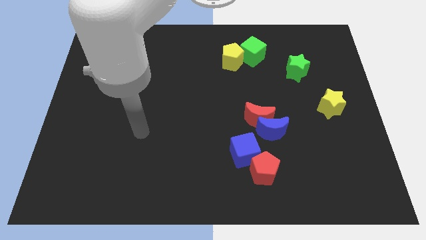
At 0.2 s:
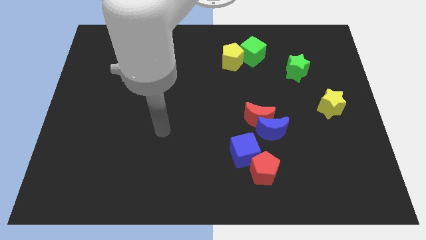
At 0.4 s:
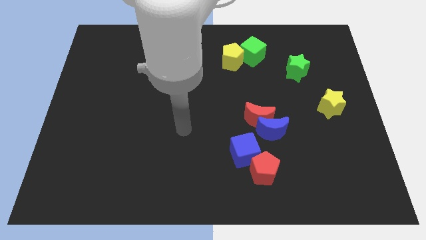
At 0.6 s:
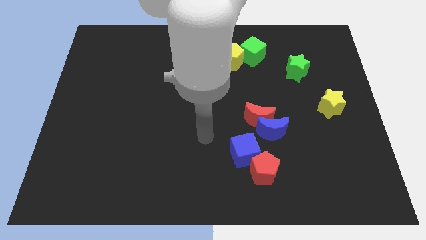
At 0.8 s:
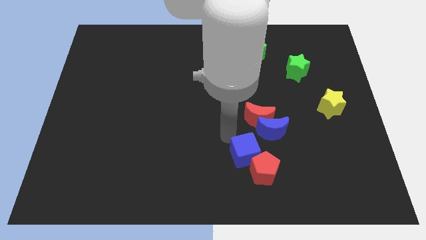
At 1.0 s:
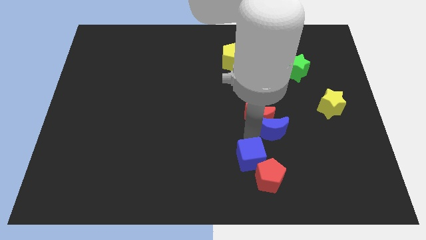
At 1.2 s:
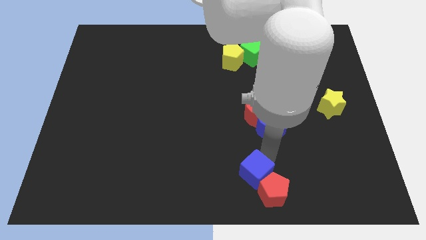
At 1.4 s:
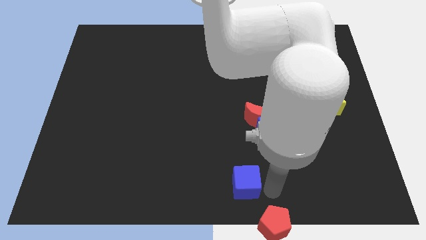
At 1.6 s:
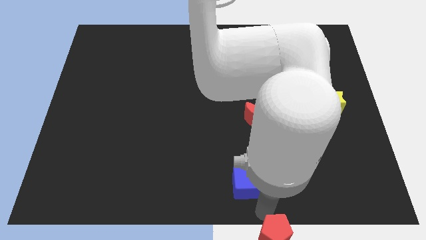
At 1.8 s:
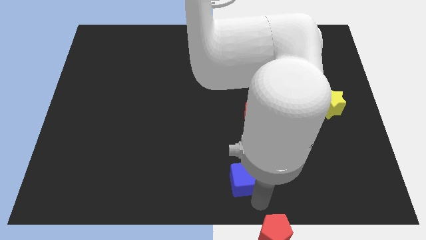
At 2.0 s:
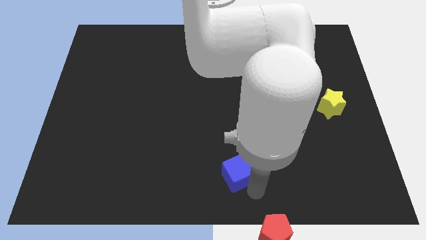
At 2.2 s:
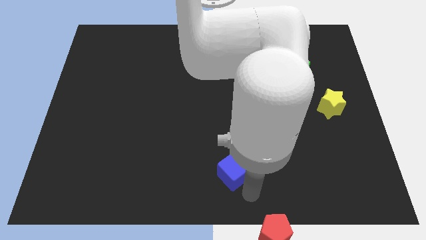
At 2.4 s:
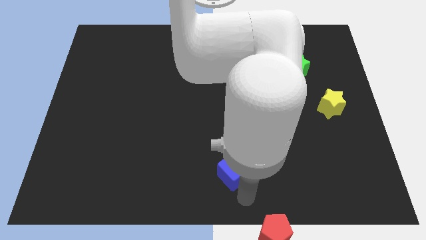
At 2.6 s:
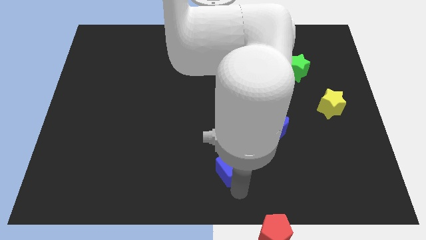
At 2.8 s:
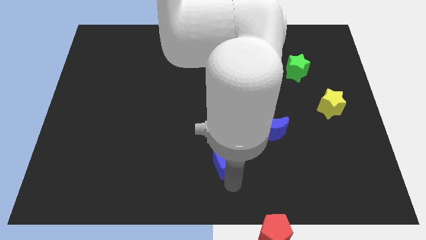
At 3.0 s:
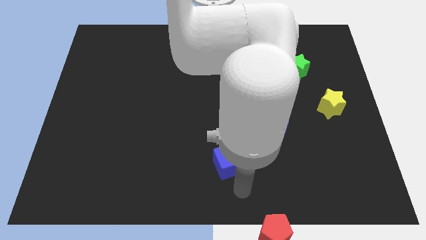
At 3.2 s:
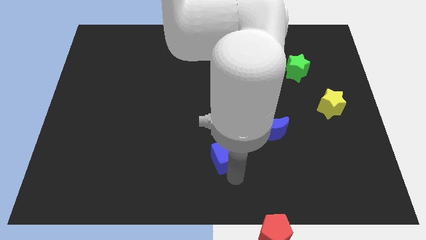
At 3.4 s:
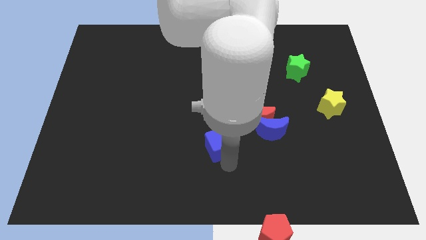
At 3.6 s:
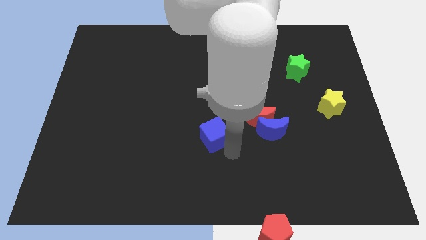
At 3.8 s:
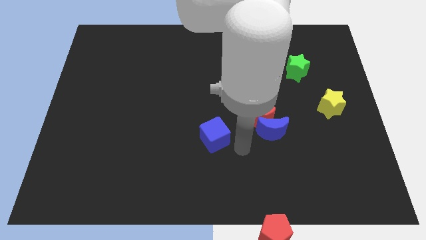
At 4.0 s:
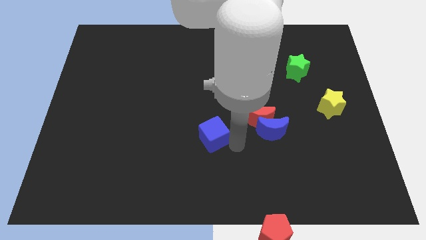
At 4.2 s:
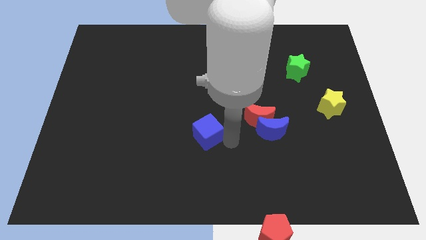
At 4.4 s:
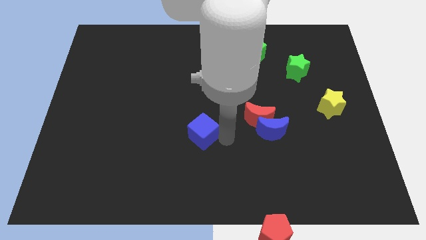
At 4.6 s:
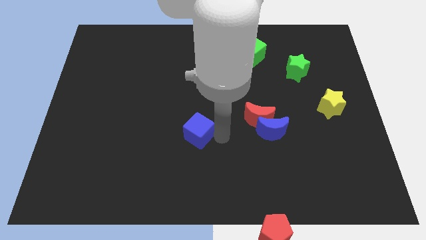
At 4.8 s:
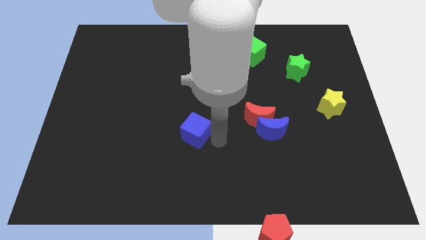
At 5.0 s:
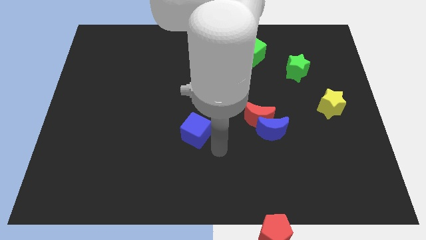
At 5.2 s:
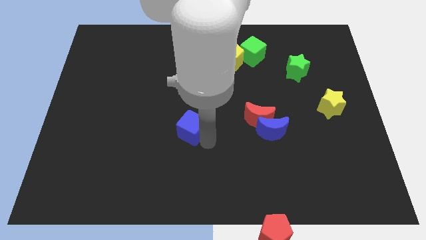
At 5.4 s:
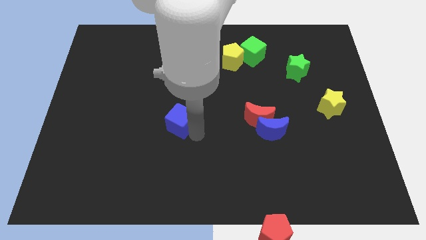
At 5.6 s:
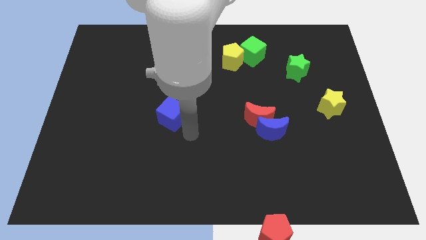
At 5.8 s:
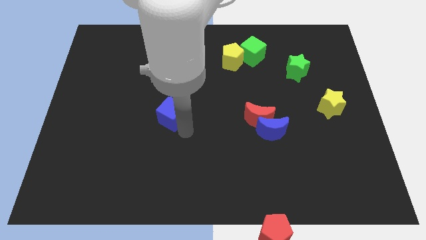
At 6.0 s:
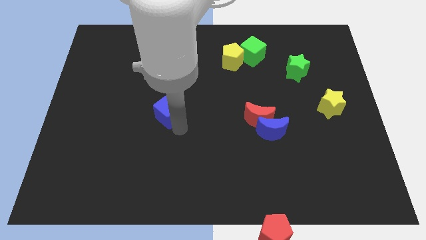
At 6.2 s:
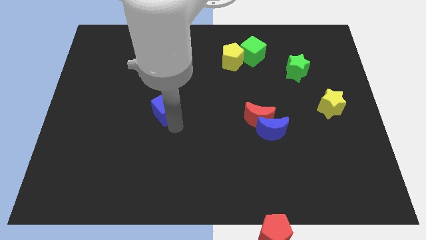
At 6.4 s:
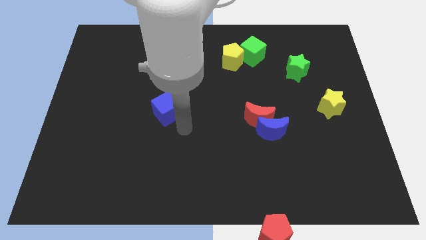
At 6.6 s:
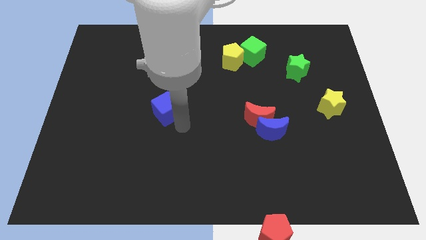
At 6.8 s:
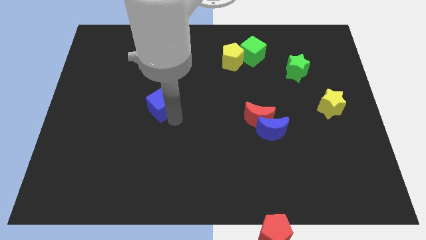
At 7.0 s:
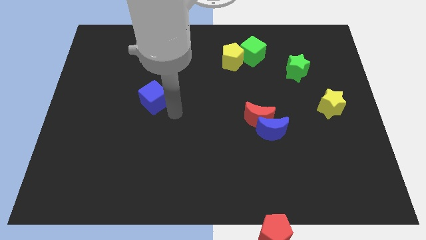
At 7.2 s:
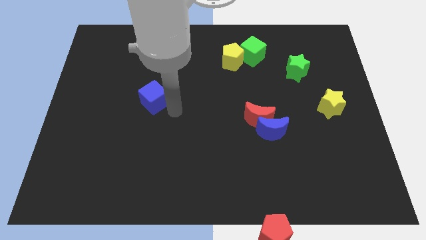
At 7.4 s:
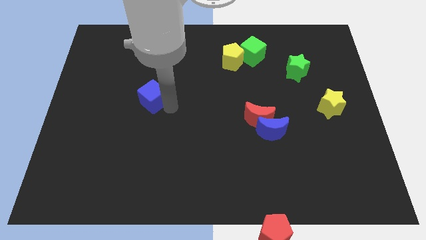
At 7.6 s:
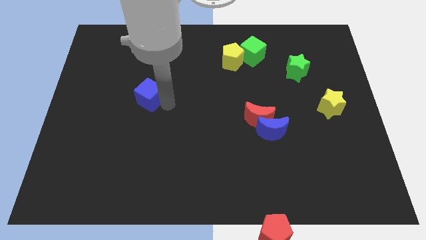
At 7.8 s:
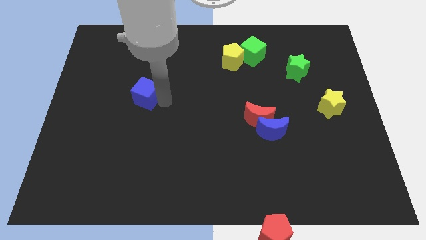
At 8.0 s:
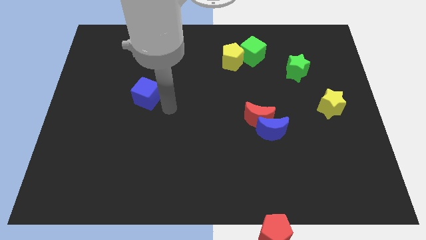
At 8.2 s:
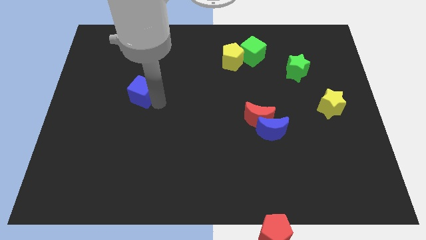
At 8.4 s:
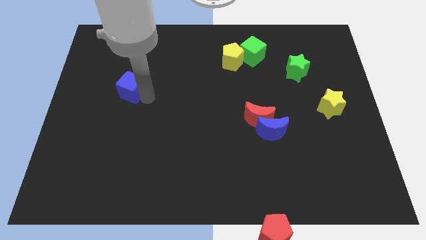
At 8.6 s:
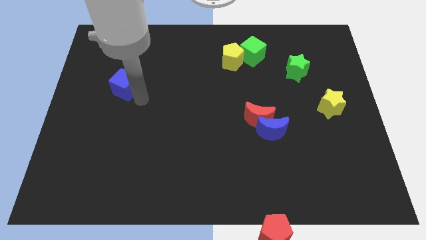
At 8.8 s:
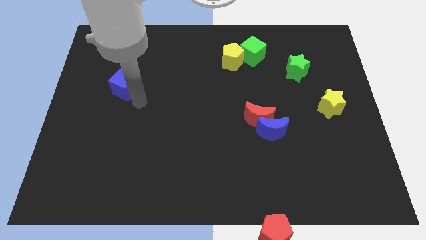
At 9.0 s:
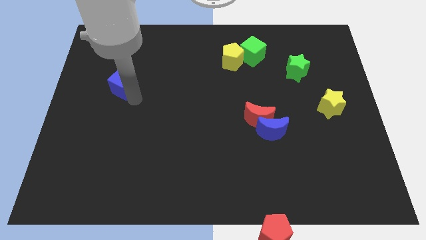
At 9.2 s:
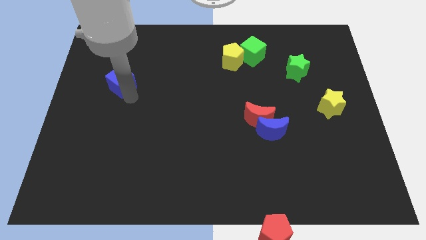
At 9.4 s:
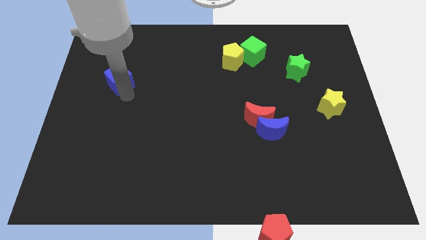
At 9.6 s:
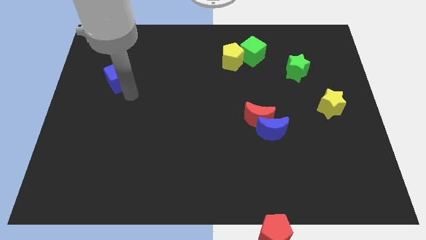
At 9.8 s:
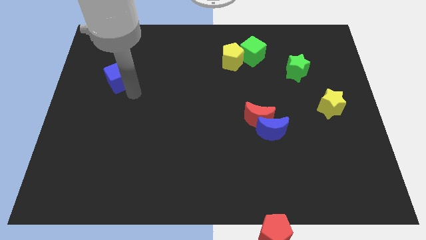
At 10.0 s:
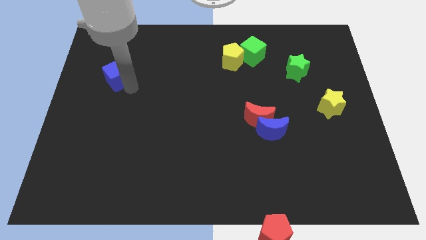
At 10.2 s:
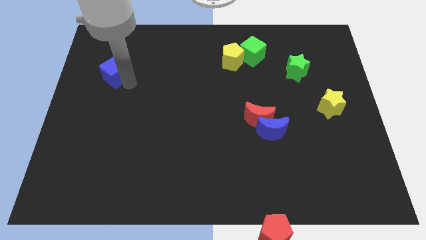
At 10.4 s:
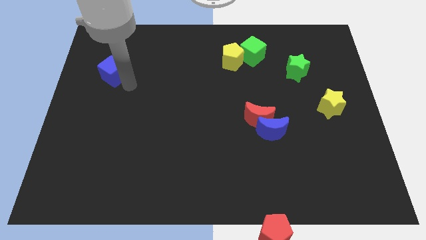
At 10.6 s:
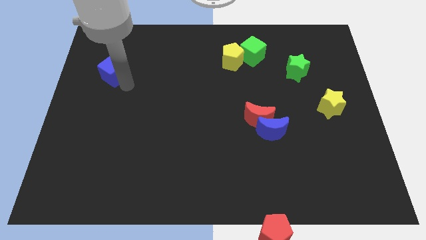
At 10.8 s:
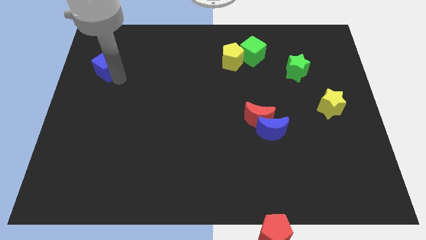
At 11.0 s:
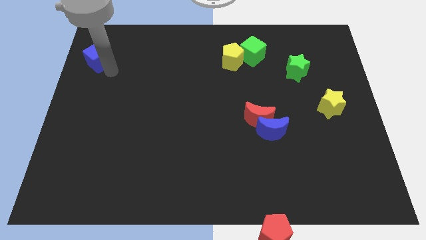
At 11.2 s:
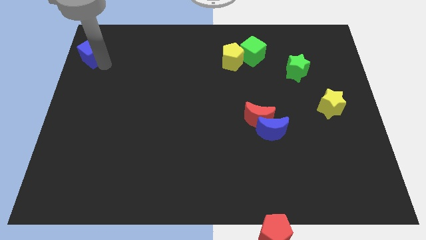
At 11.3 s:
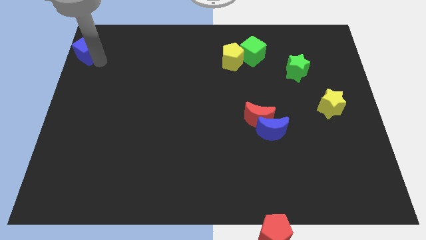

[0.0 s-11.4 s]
move the blue cube to the top left

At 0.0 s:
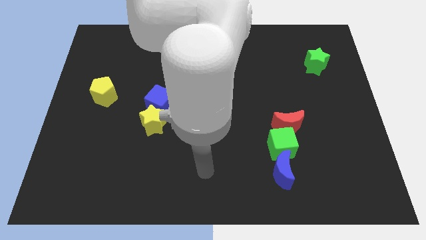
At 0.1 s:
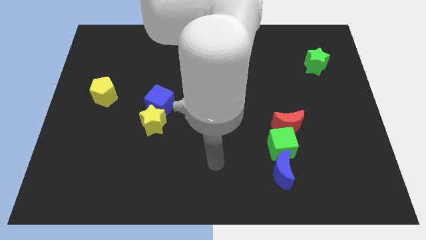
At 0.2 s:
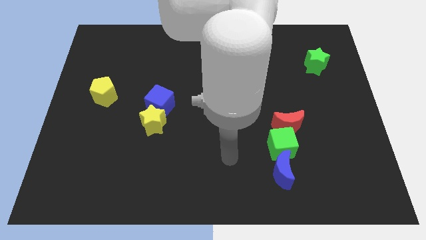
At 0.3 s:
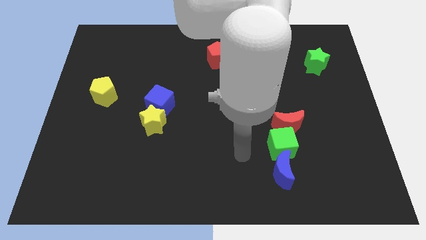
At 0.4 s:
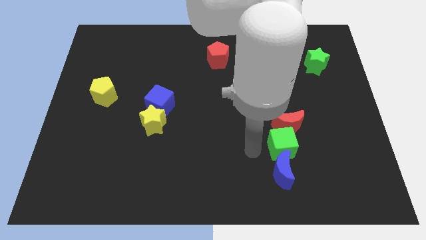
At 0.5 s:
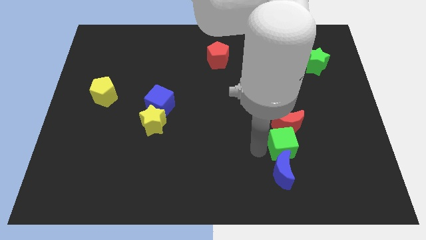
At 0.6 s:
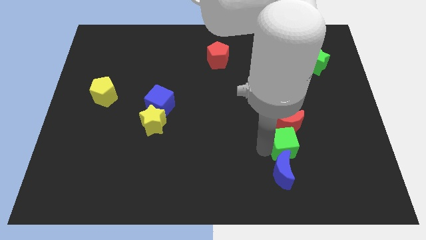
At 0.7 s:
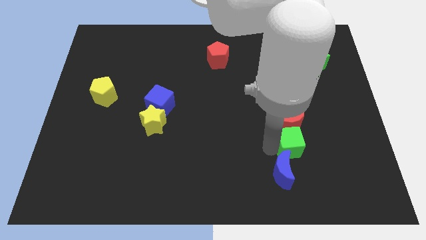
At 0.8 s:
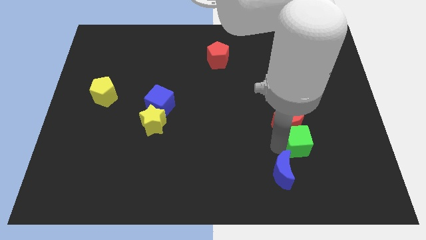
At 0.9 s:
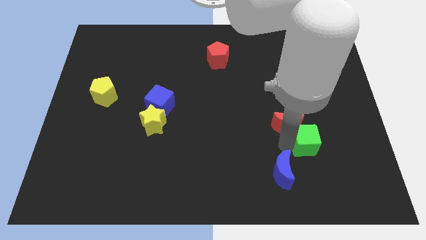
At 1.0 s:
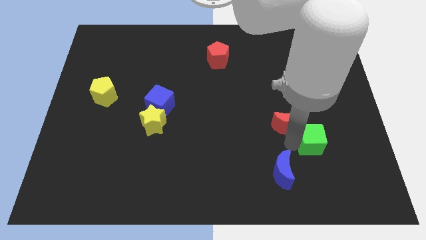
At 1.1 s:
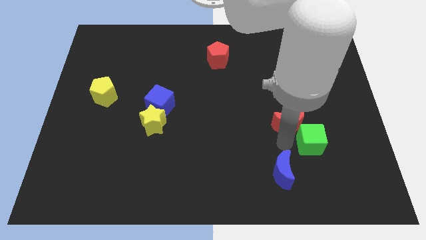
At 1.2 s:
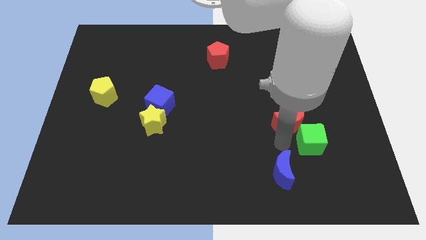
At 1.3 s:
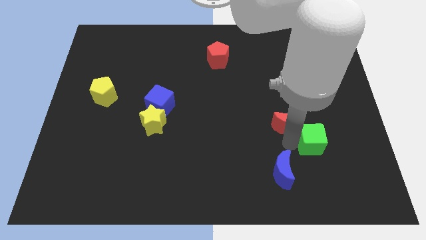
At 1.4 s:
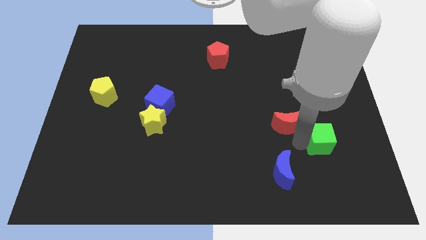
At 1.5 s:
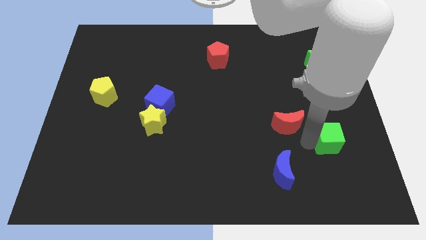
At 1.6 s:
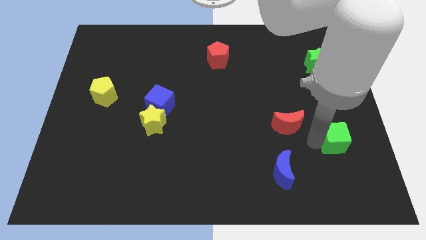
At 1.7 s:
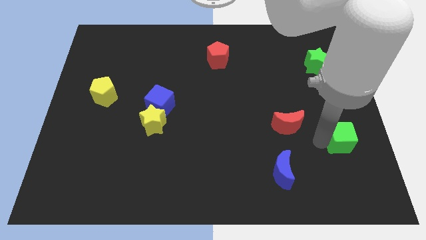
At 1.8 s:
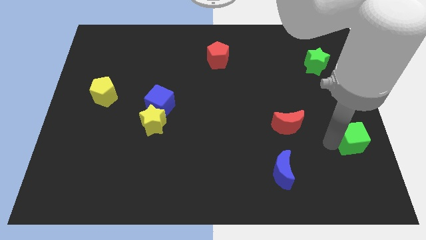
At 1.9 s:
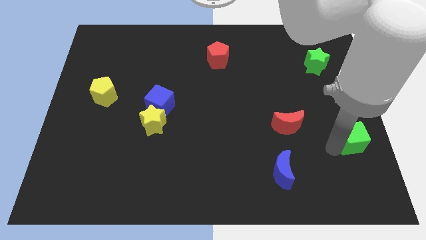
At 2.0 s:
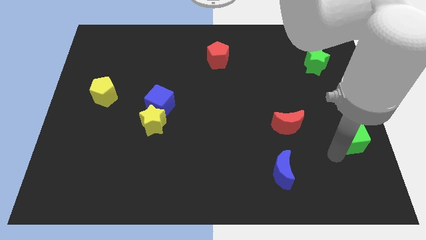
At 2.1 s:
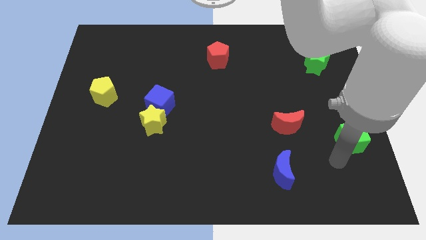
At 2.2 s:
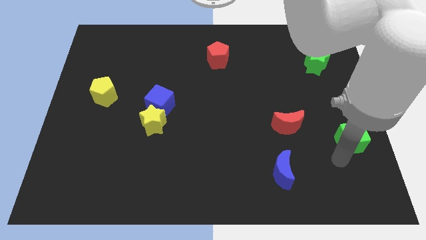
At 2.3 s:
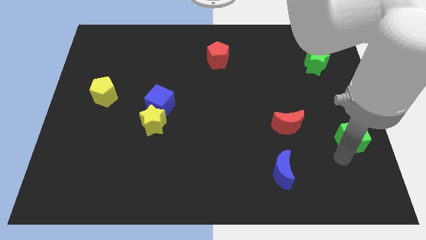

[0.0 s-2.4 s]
slide the green cube to the center right
